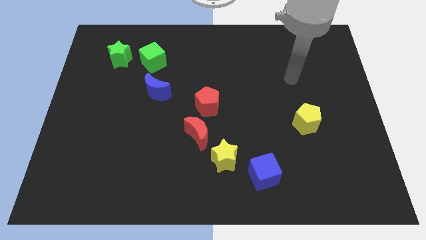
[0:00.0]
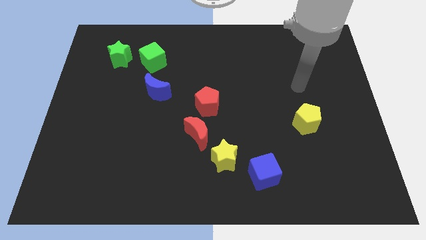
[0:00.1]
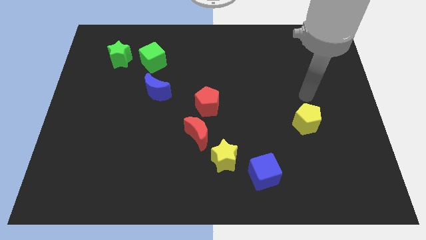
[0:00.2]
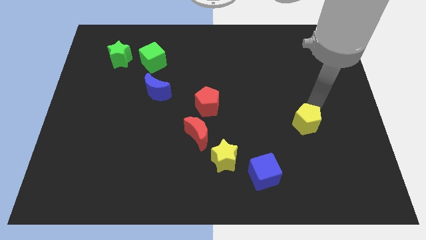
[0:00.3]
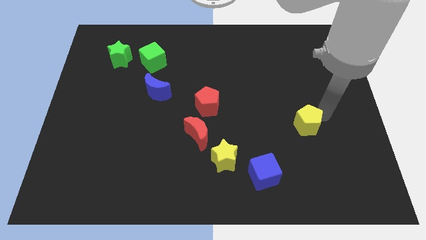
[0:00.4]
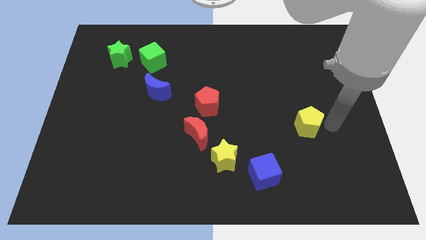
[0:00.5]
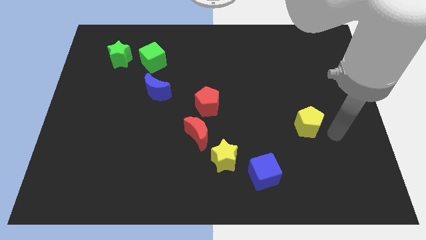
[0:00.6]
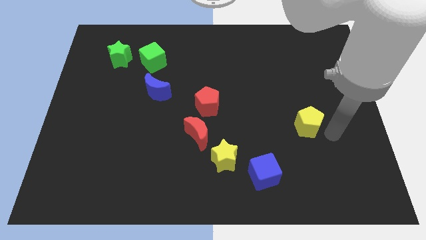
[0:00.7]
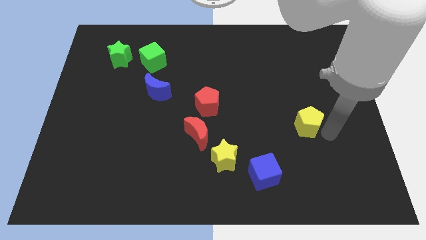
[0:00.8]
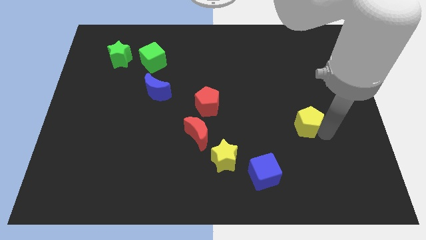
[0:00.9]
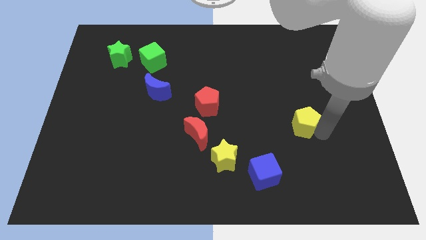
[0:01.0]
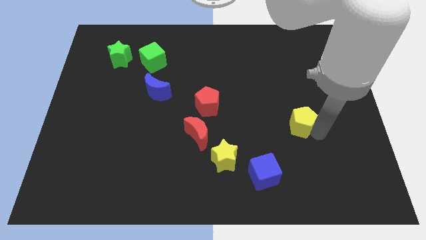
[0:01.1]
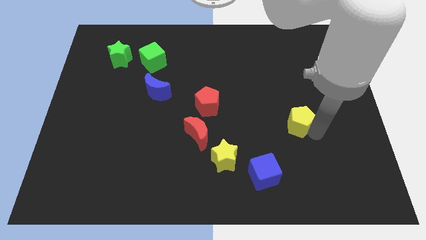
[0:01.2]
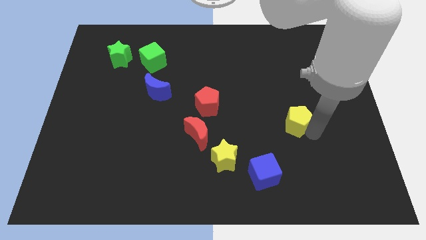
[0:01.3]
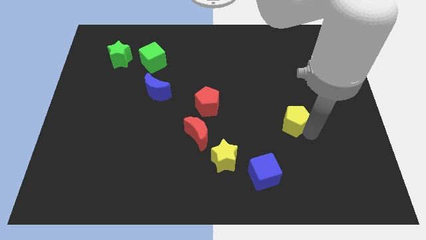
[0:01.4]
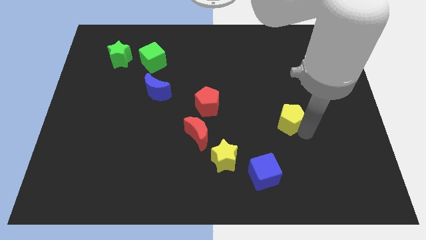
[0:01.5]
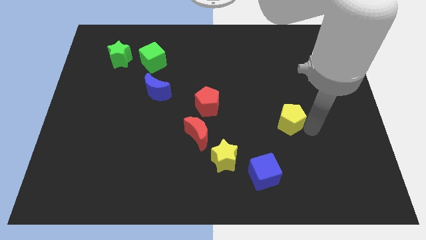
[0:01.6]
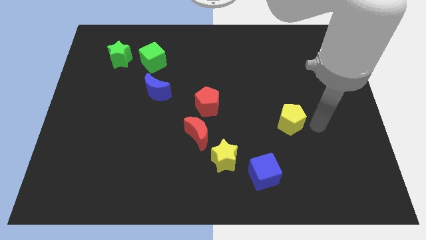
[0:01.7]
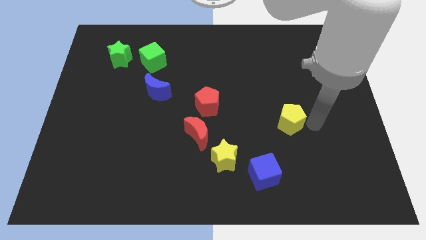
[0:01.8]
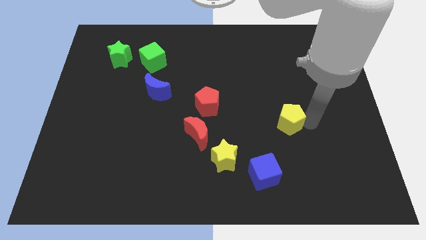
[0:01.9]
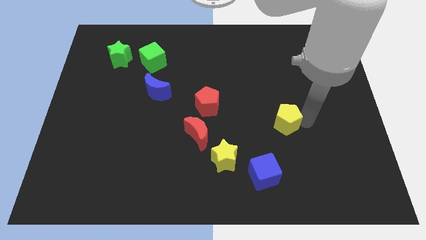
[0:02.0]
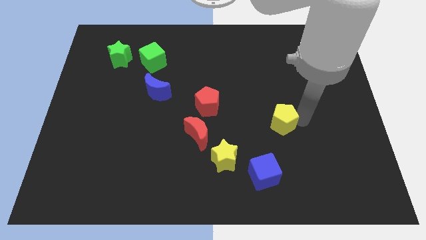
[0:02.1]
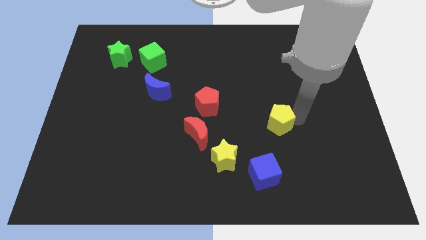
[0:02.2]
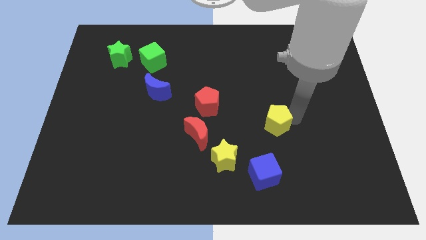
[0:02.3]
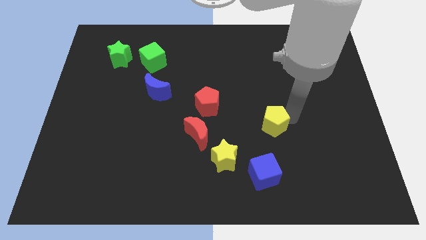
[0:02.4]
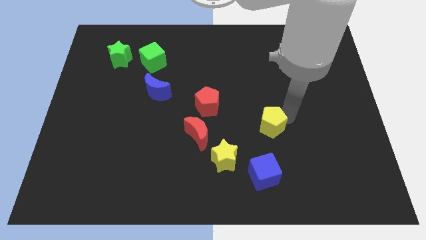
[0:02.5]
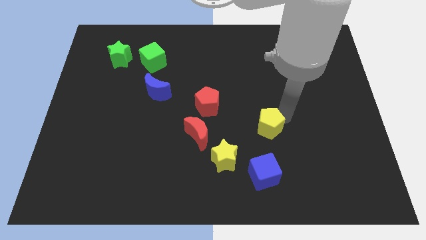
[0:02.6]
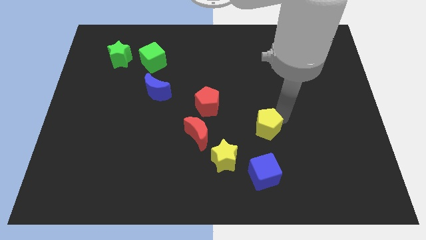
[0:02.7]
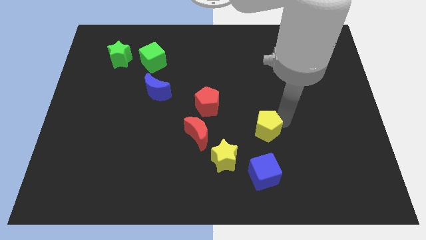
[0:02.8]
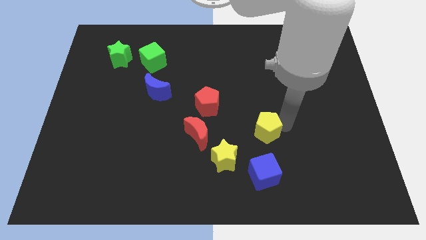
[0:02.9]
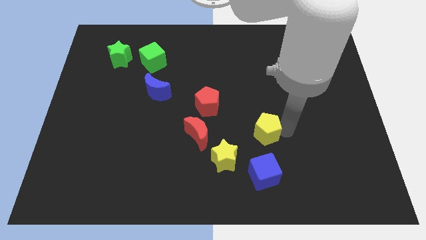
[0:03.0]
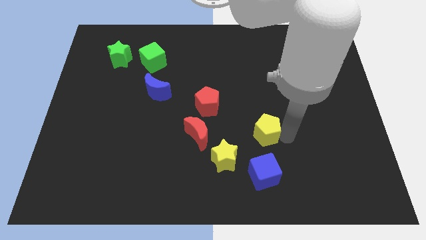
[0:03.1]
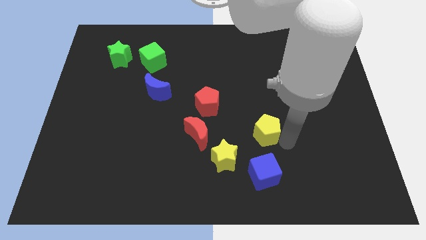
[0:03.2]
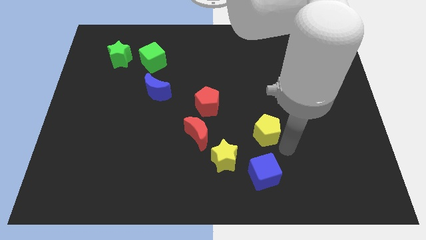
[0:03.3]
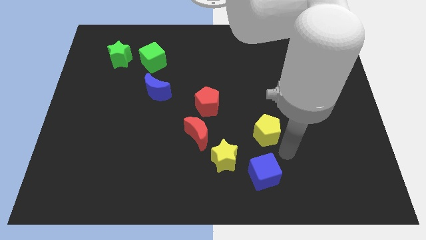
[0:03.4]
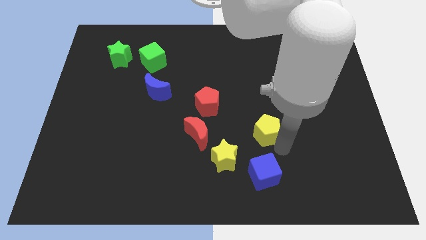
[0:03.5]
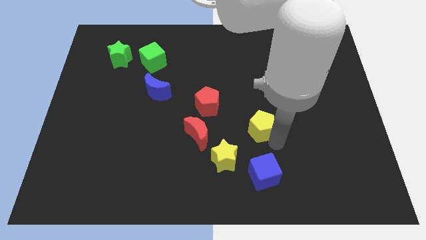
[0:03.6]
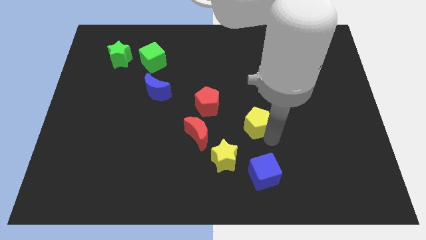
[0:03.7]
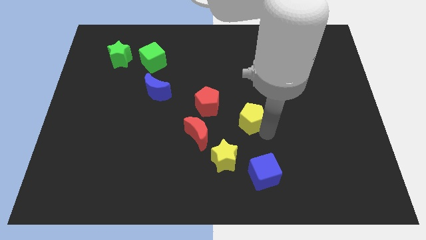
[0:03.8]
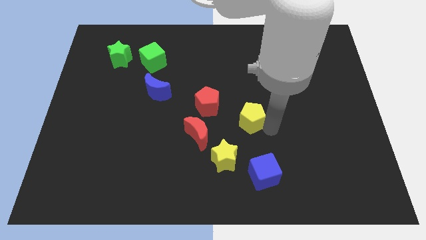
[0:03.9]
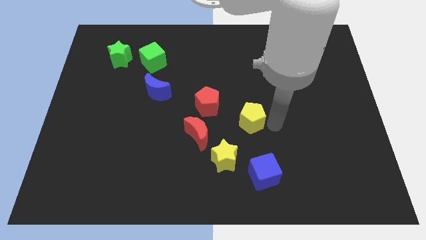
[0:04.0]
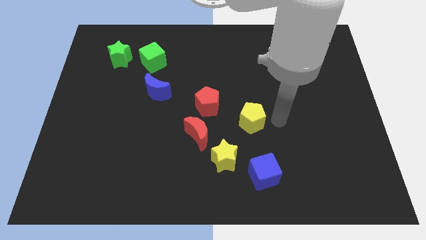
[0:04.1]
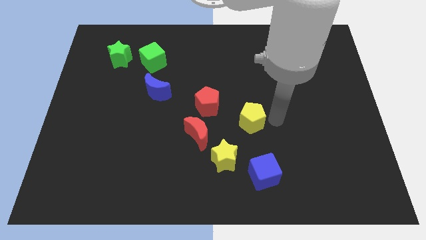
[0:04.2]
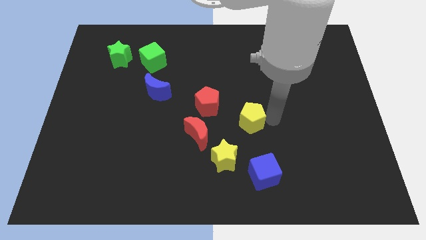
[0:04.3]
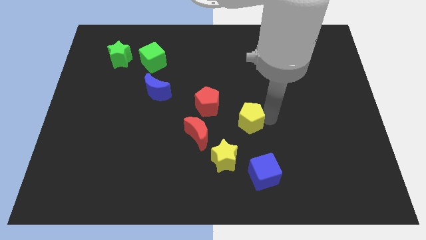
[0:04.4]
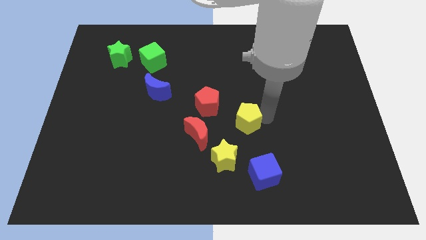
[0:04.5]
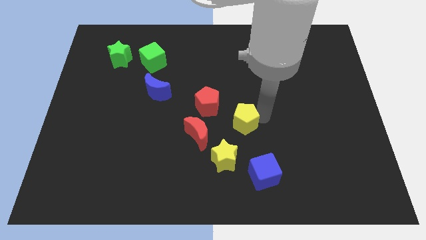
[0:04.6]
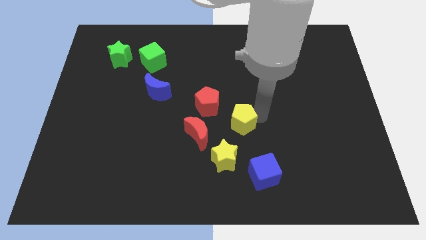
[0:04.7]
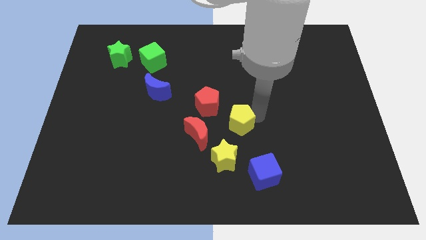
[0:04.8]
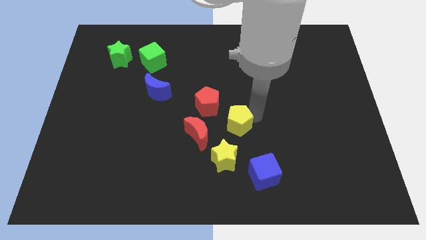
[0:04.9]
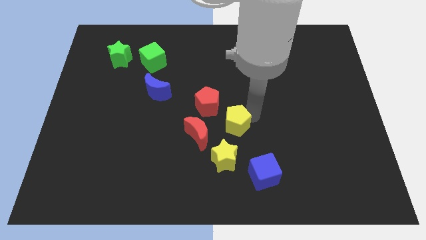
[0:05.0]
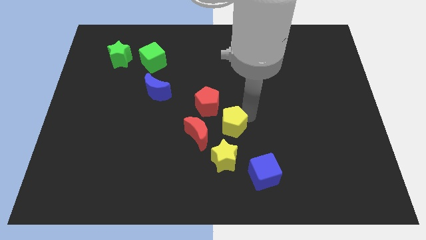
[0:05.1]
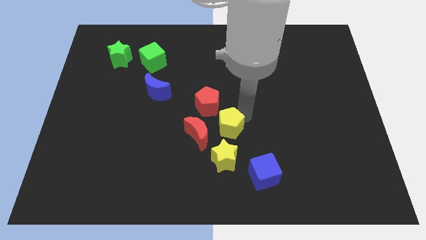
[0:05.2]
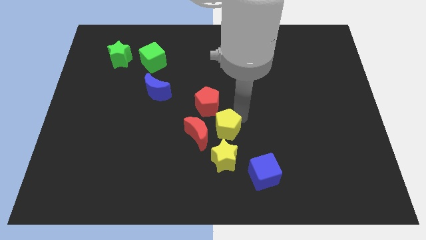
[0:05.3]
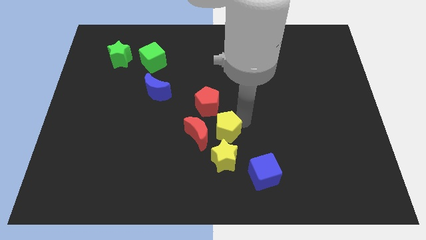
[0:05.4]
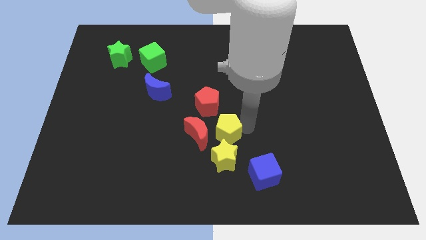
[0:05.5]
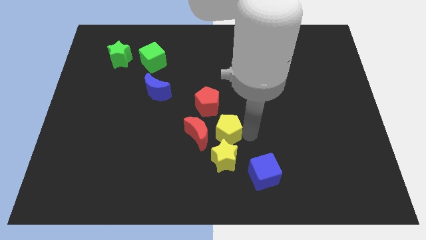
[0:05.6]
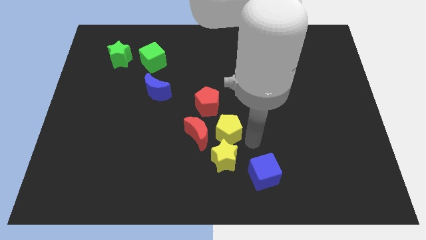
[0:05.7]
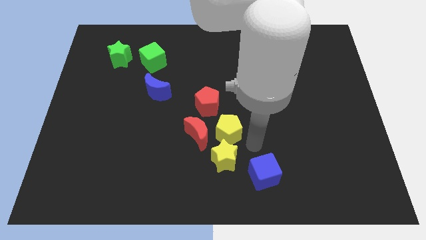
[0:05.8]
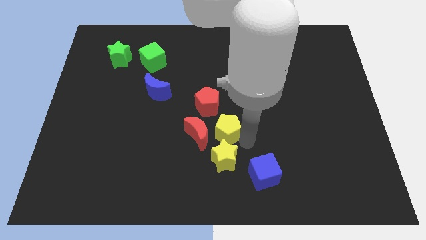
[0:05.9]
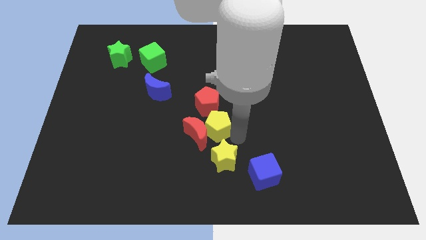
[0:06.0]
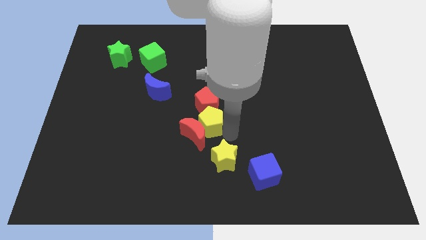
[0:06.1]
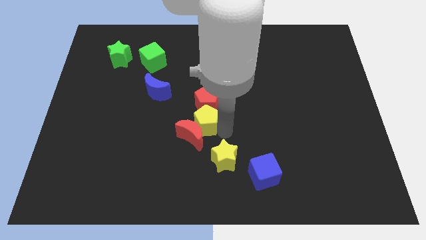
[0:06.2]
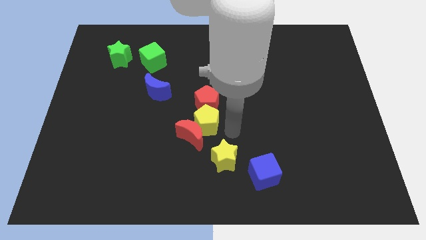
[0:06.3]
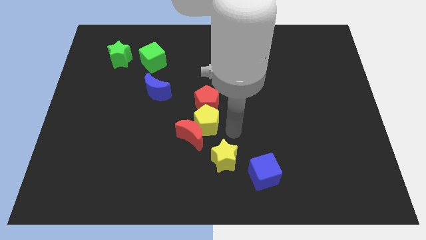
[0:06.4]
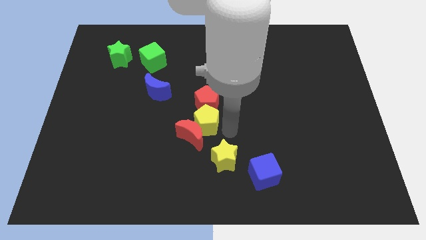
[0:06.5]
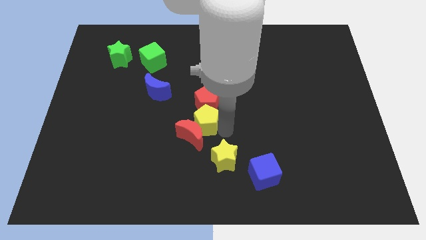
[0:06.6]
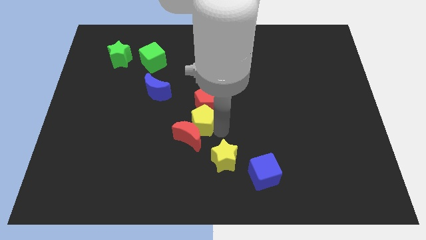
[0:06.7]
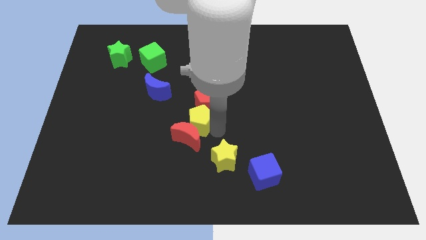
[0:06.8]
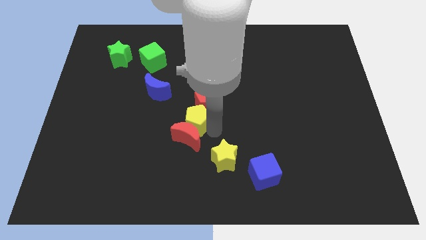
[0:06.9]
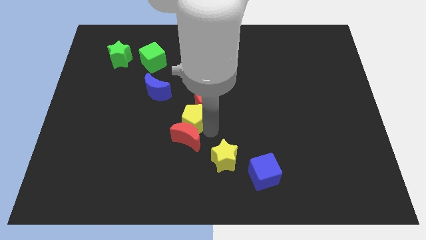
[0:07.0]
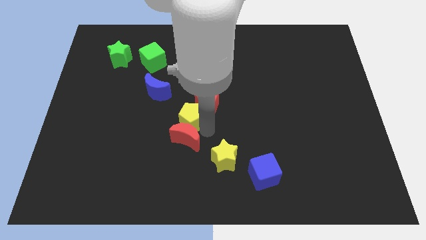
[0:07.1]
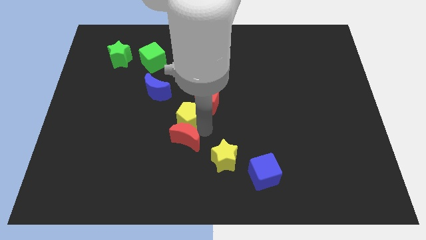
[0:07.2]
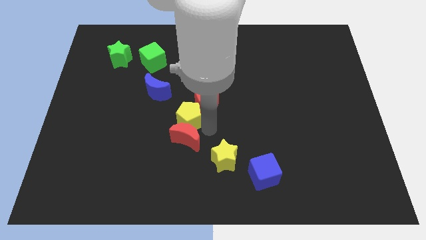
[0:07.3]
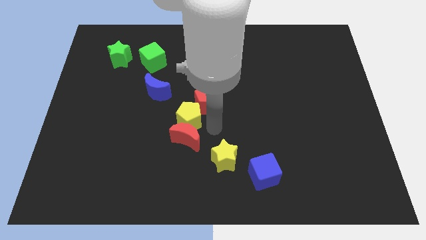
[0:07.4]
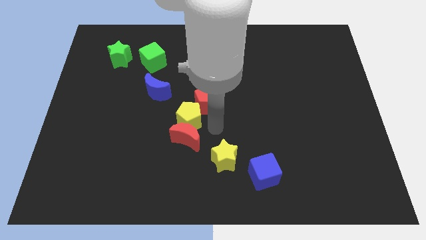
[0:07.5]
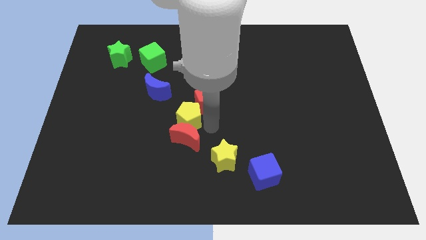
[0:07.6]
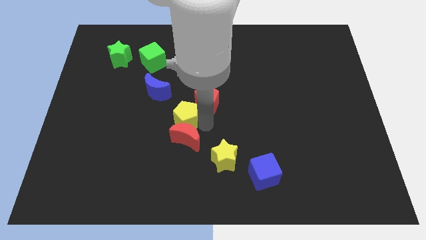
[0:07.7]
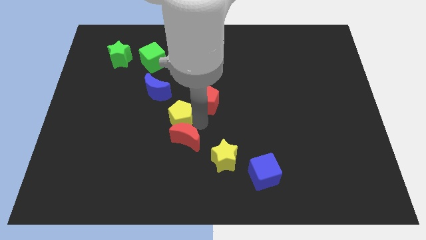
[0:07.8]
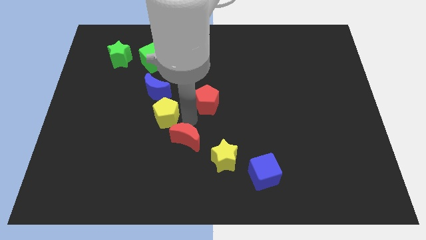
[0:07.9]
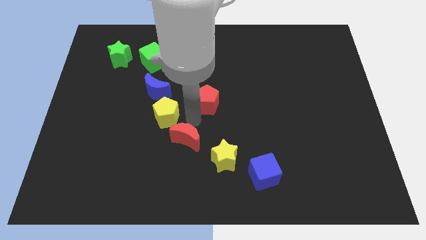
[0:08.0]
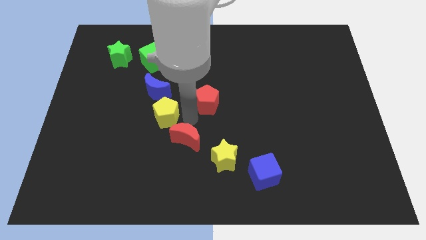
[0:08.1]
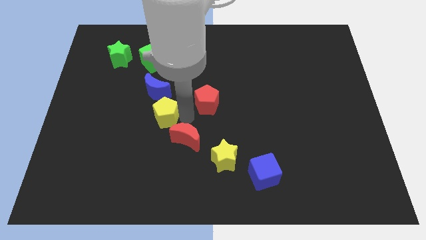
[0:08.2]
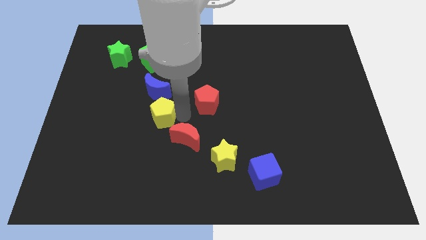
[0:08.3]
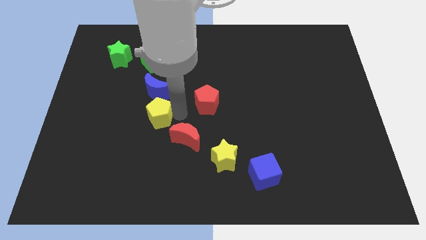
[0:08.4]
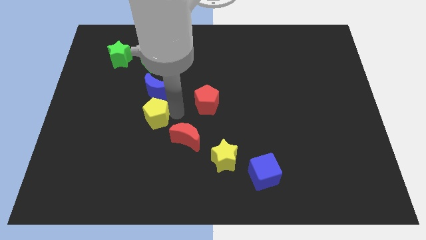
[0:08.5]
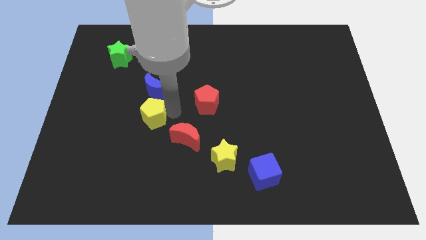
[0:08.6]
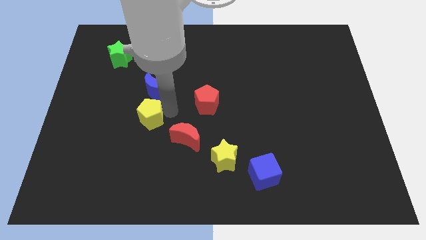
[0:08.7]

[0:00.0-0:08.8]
slide the yellow pentagon diagonally down and to the left of the blue moon
